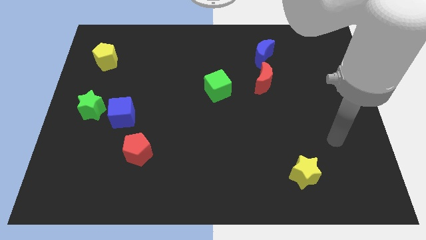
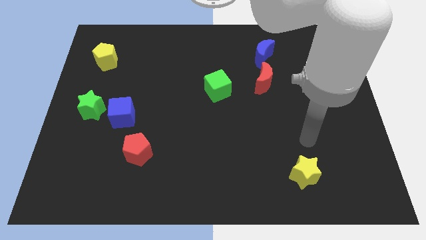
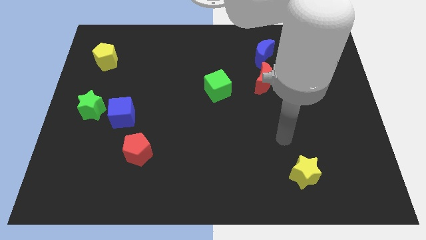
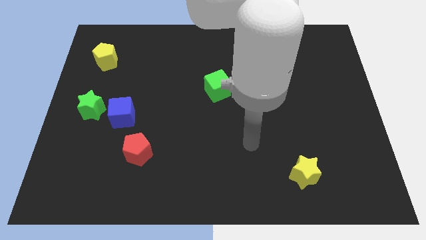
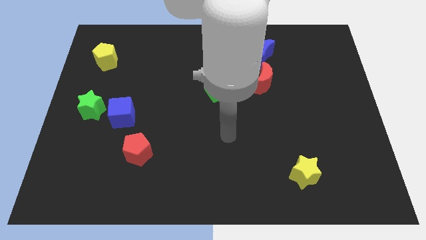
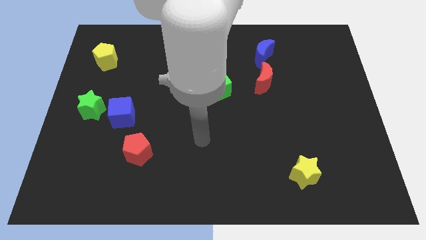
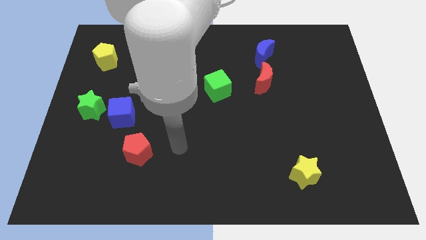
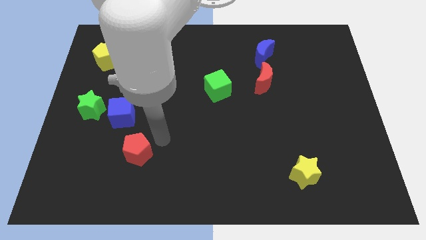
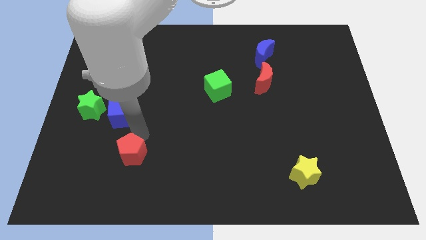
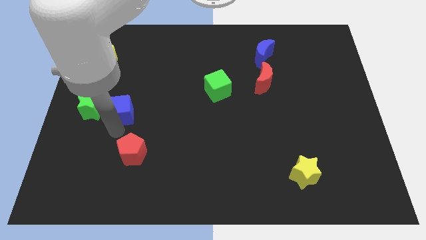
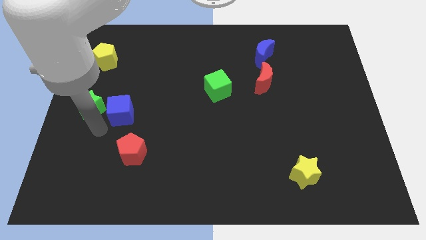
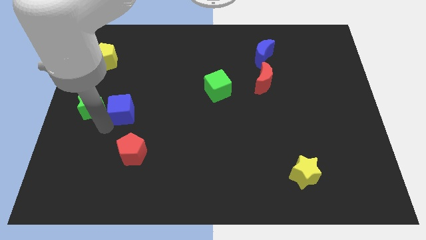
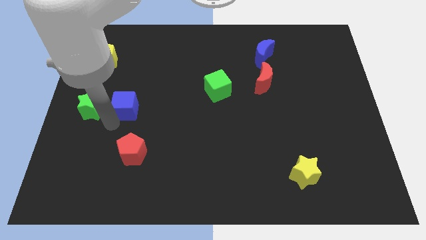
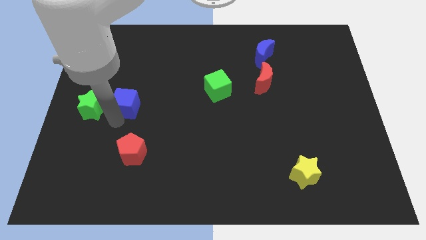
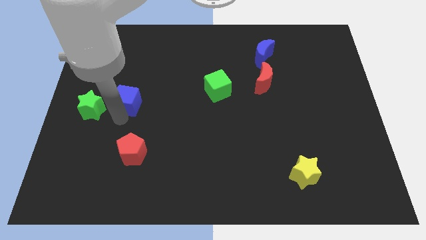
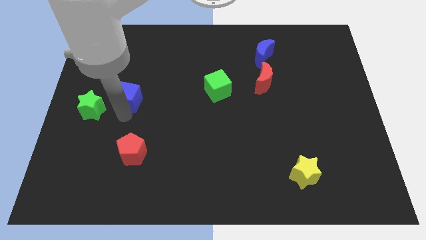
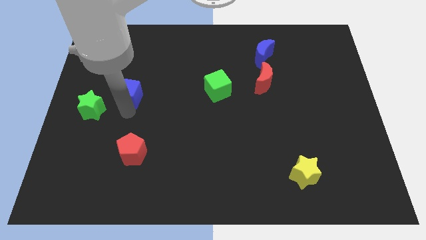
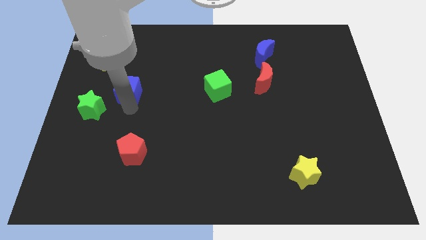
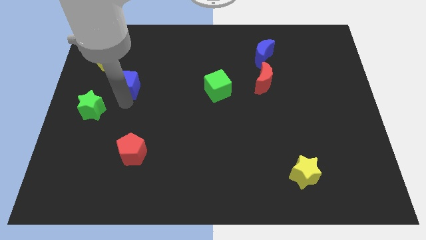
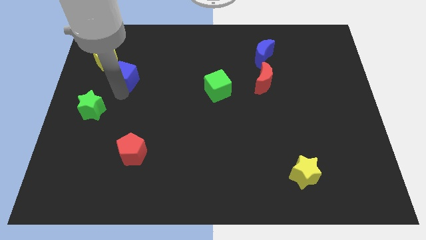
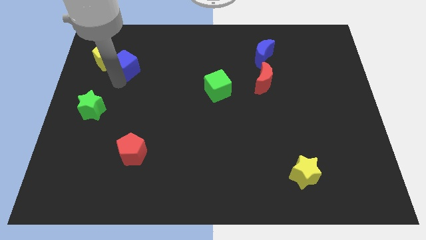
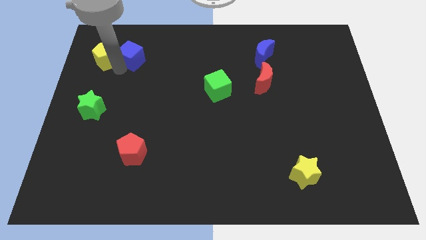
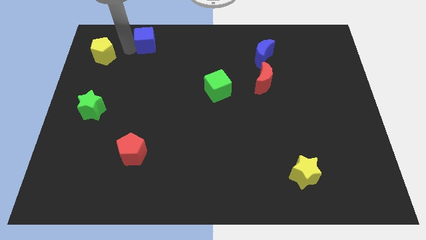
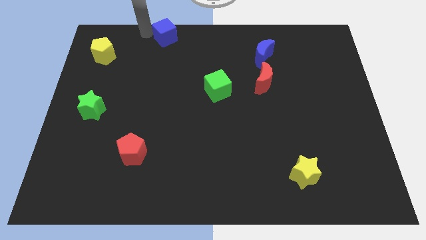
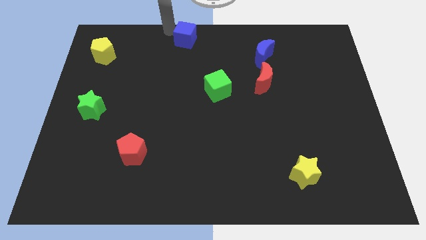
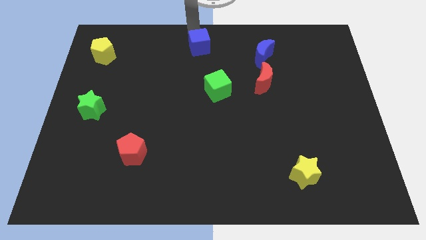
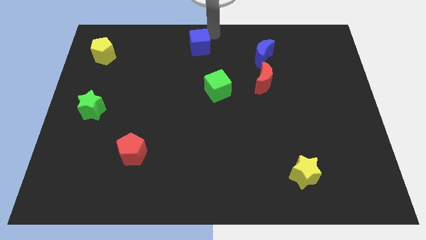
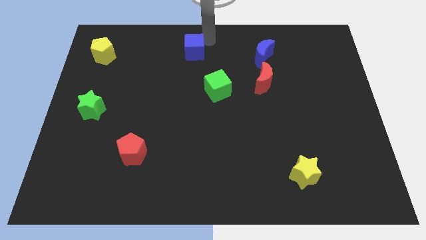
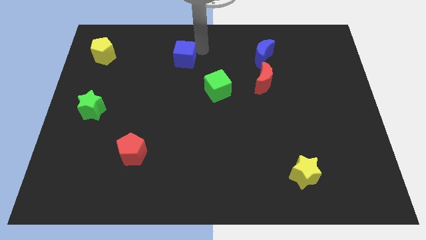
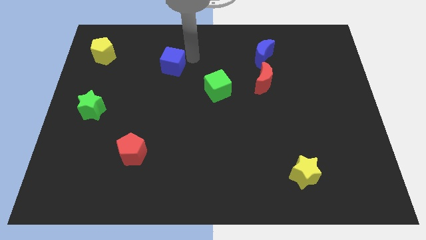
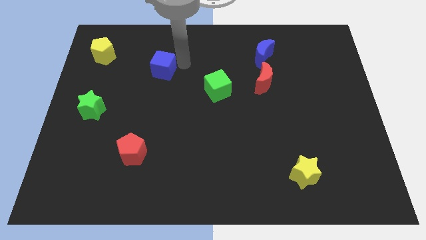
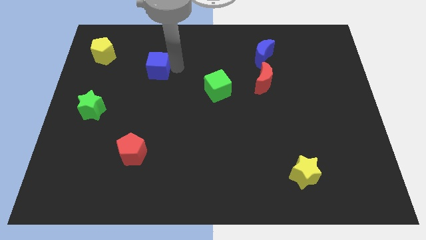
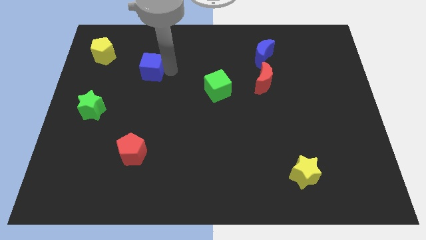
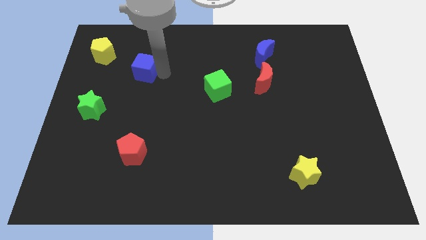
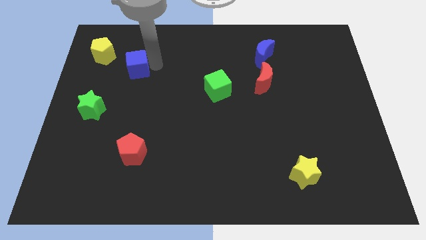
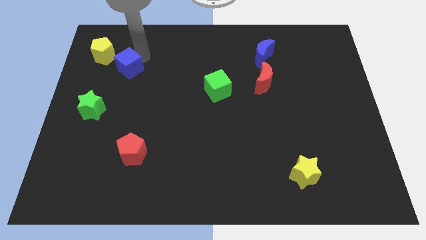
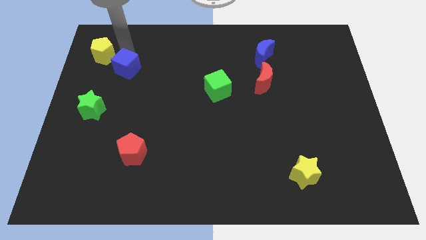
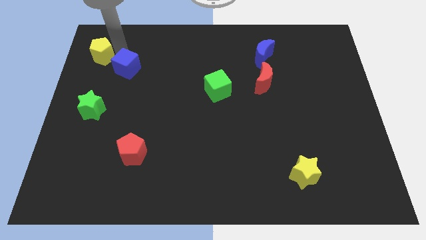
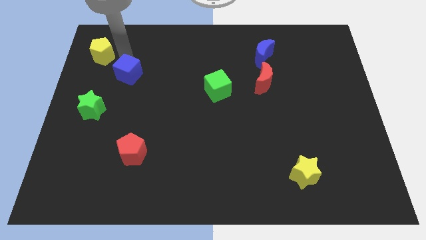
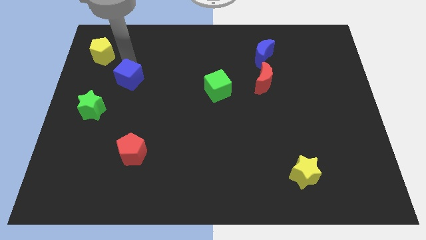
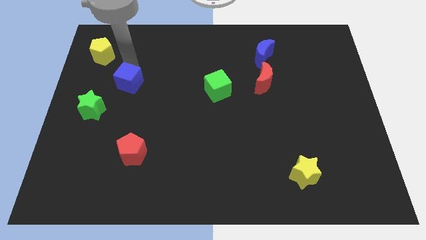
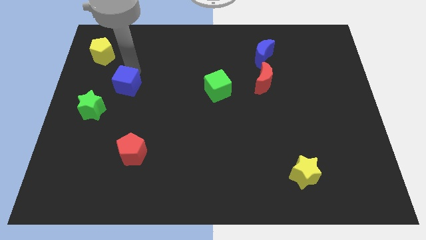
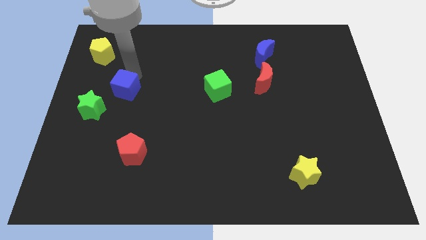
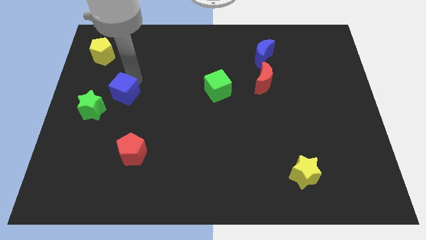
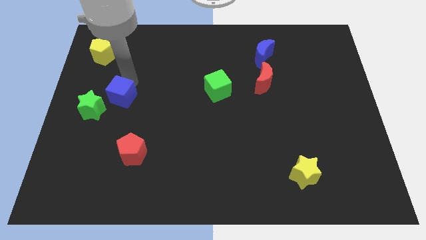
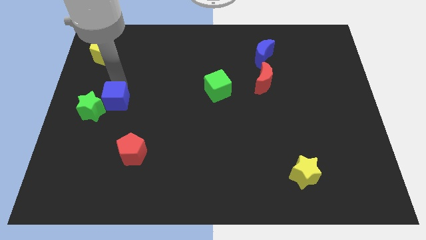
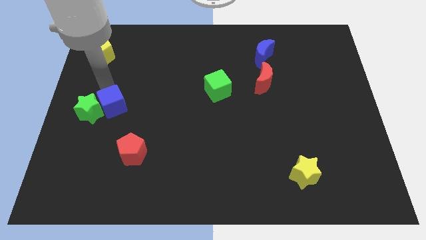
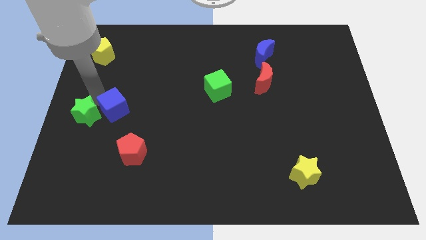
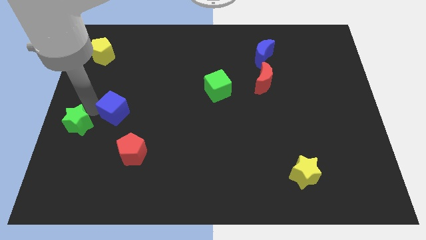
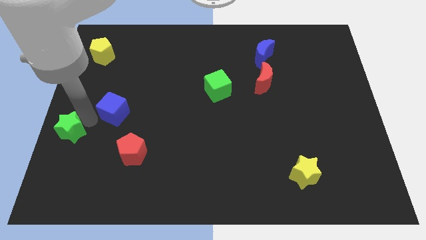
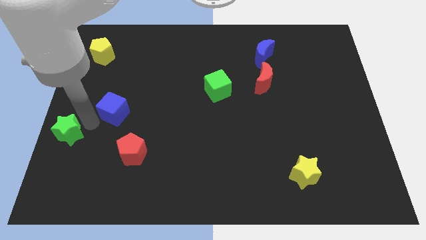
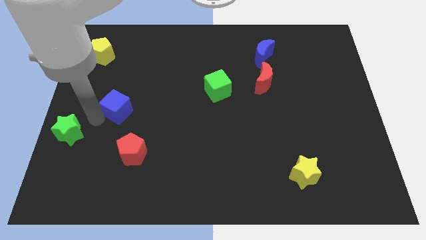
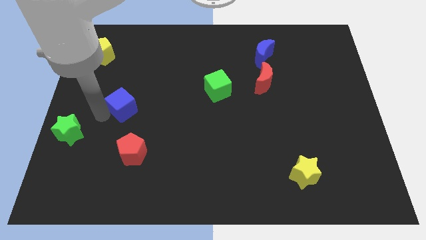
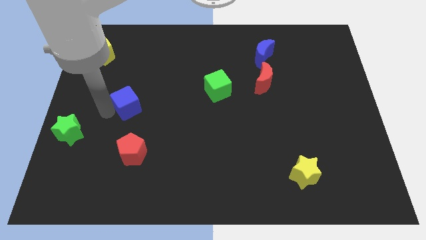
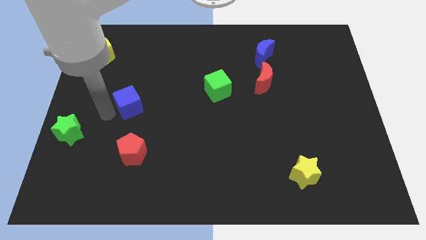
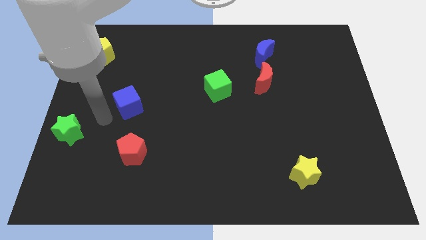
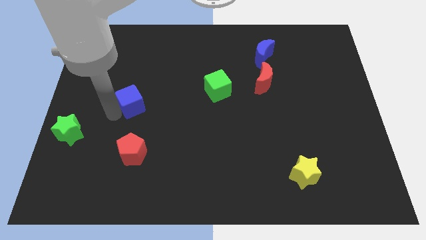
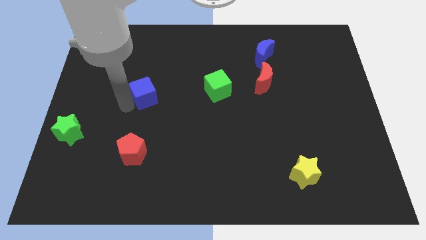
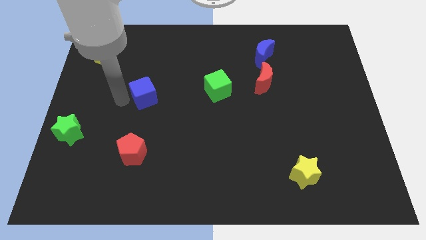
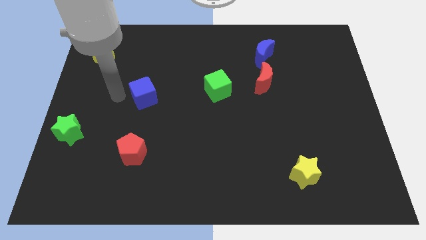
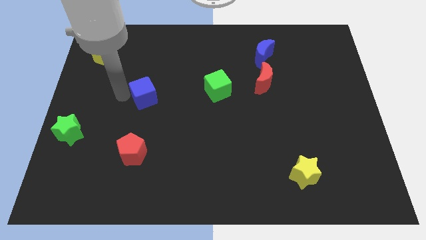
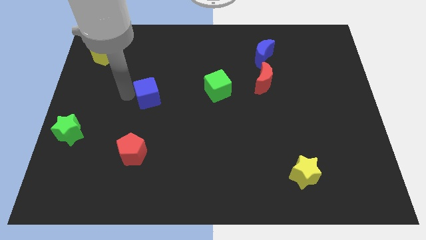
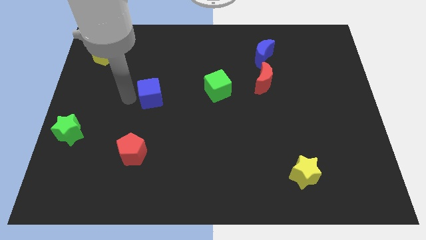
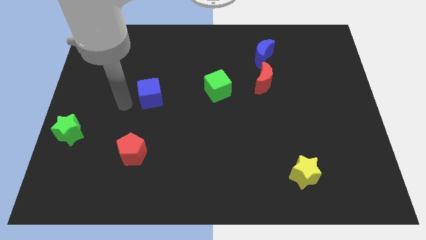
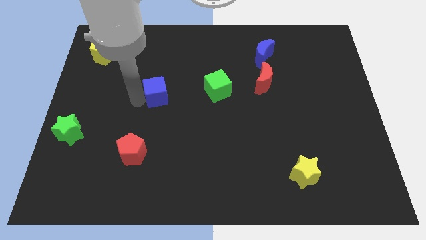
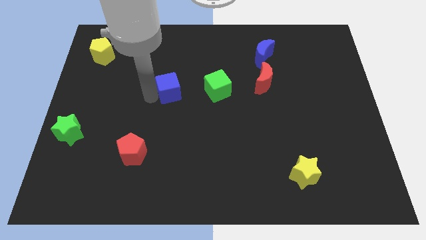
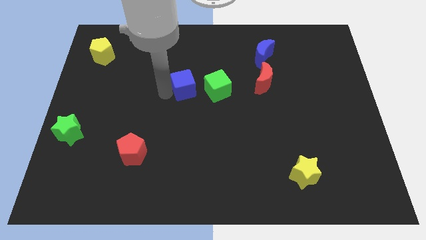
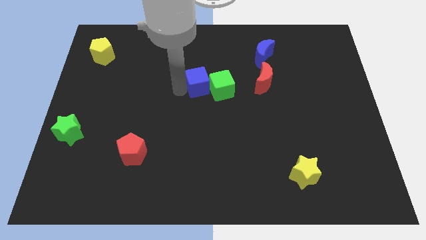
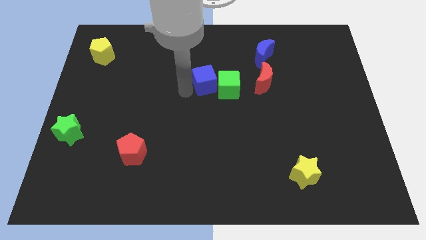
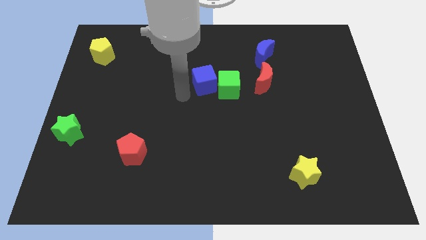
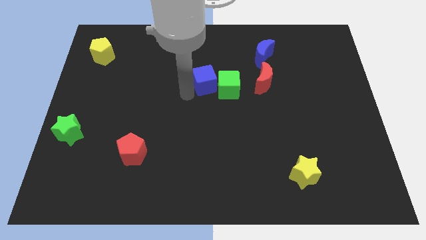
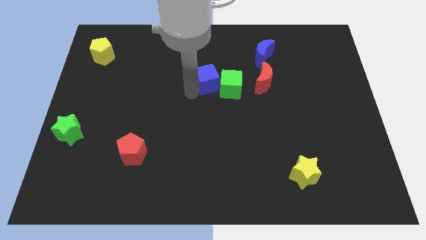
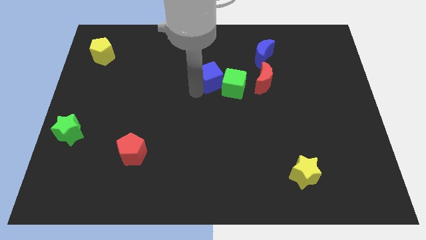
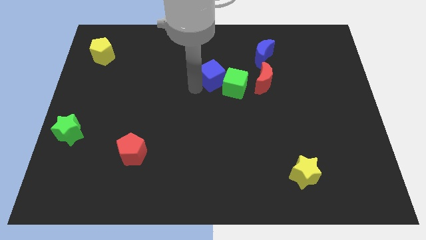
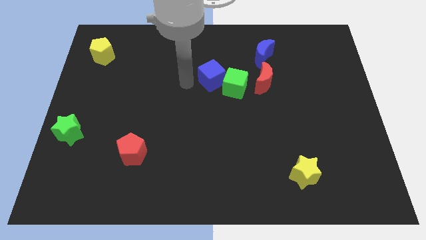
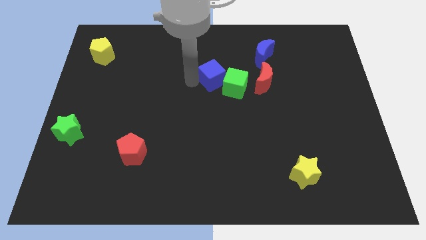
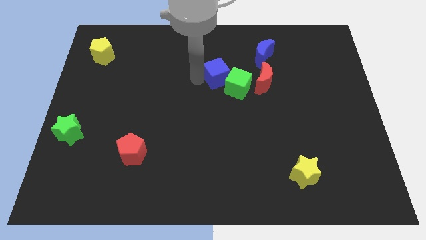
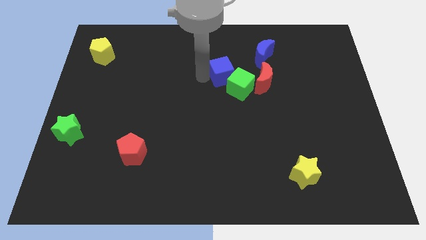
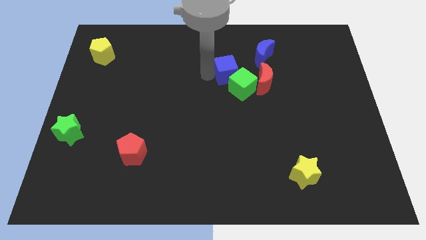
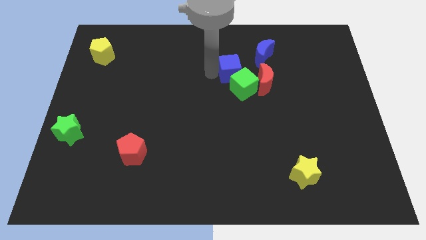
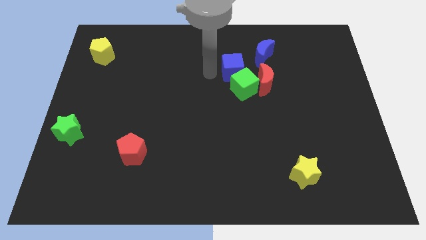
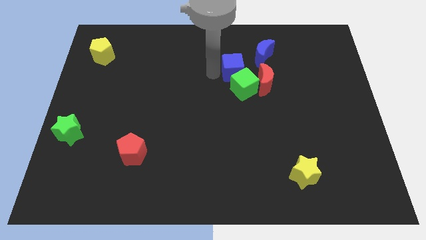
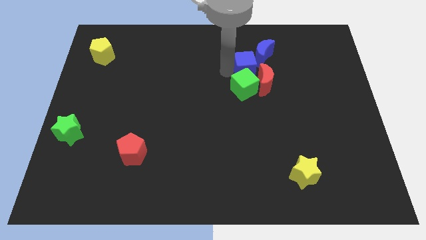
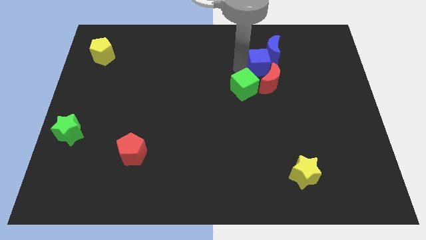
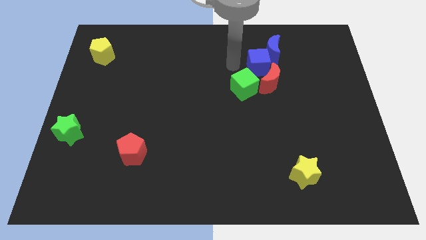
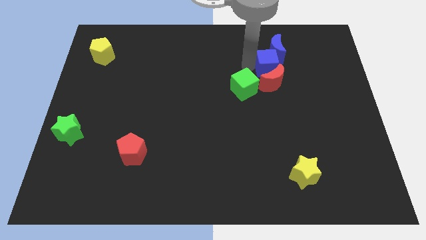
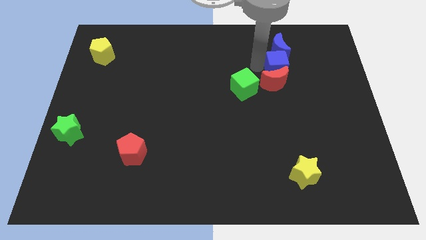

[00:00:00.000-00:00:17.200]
put the blue cube diagonally down and to the right of the blue moon
